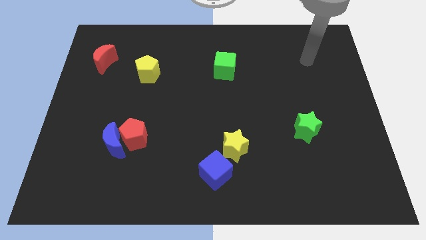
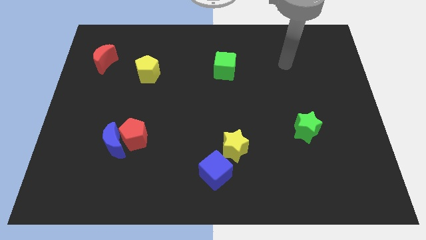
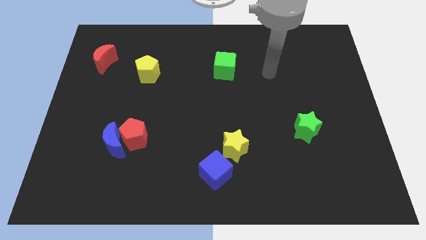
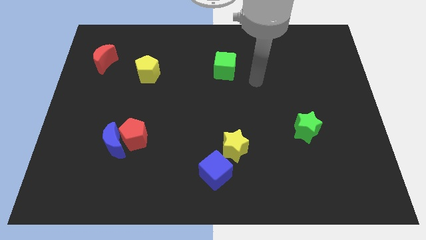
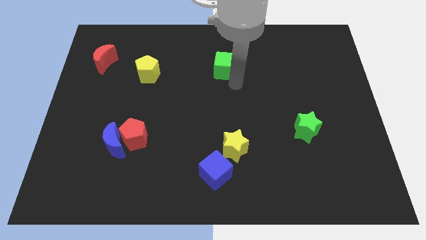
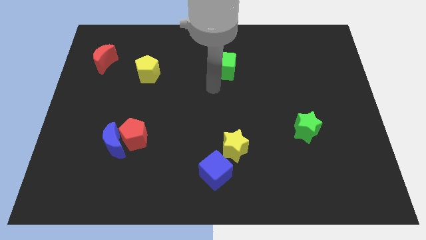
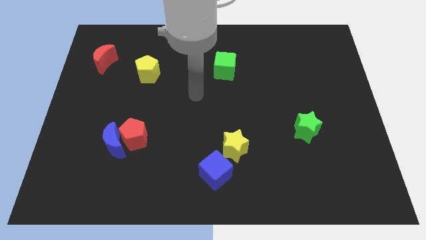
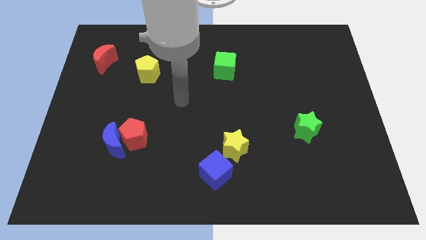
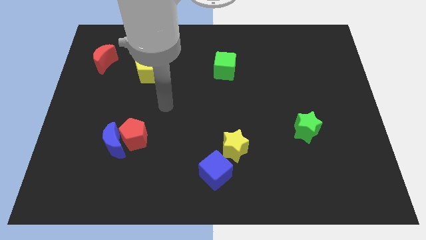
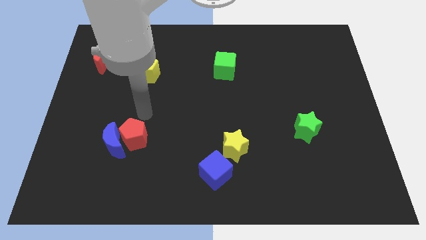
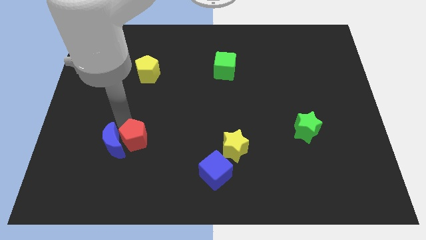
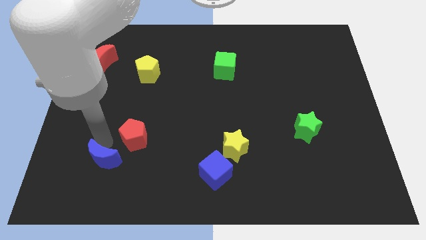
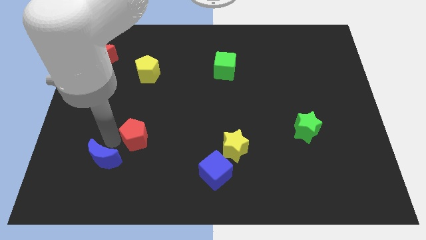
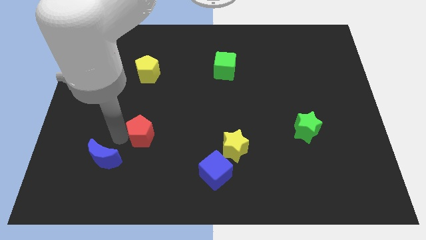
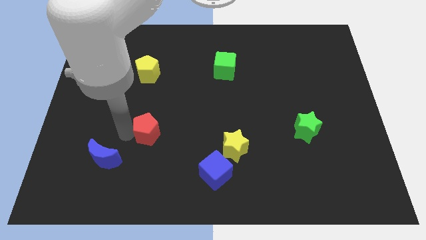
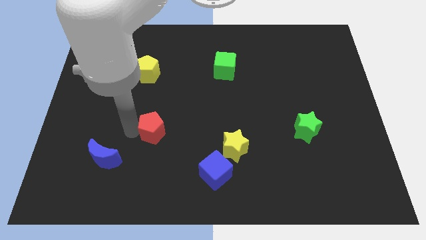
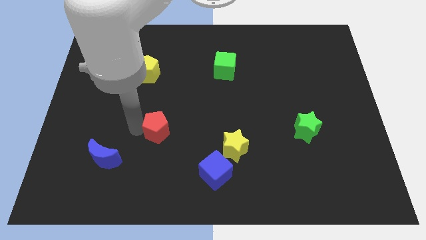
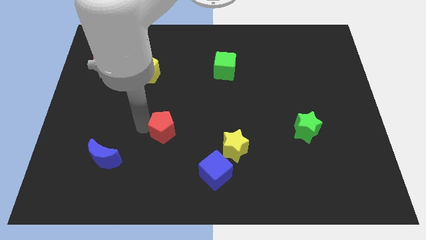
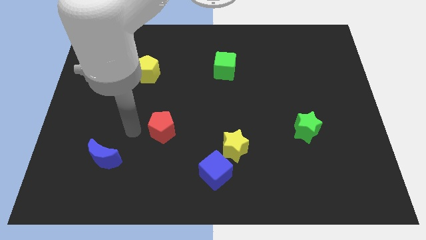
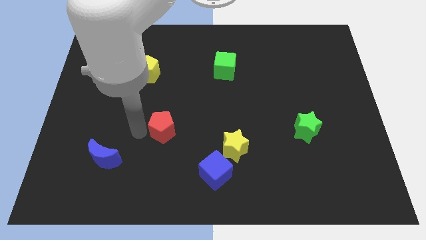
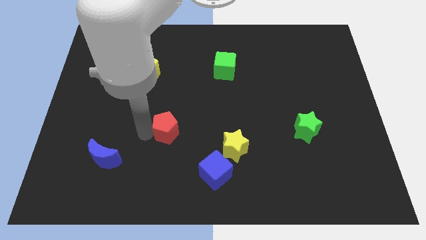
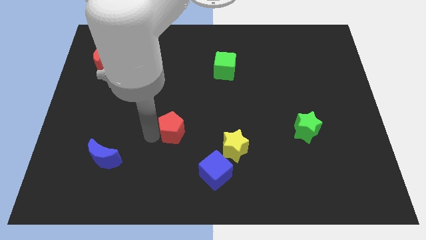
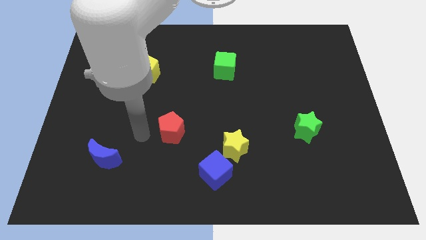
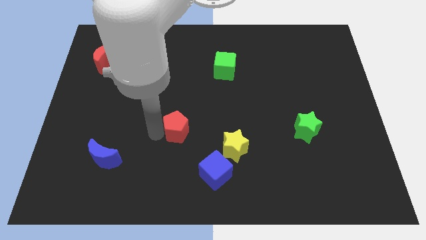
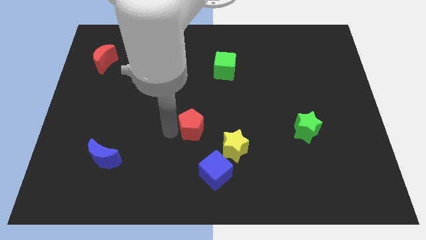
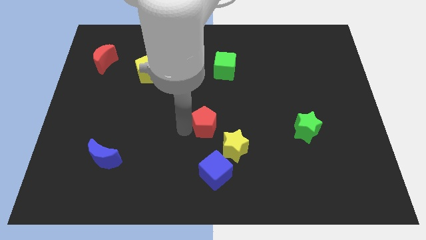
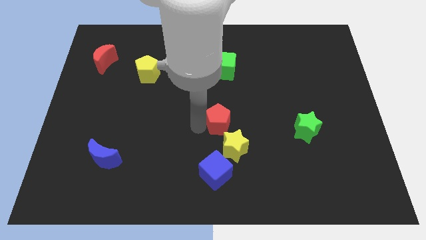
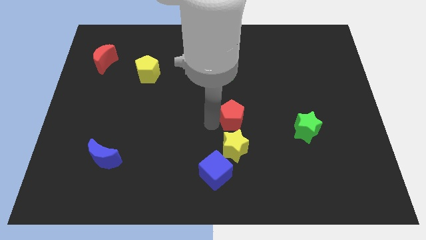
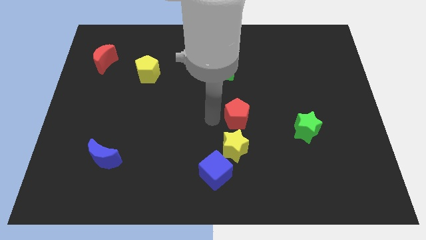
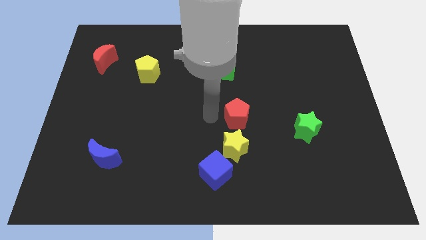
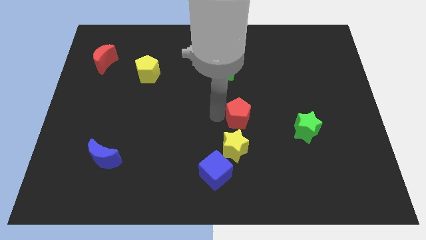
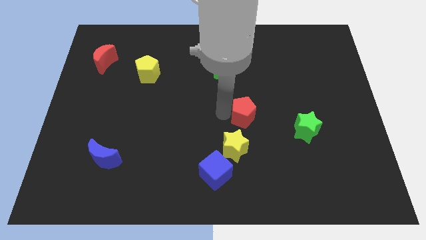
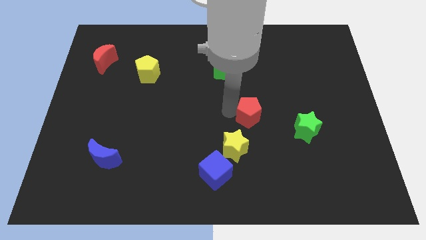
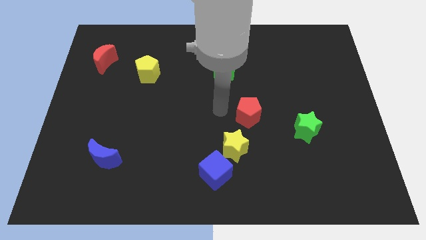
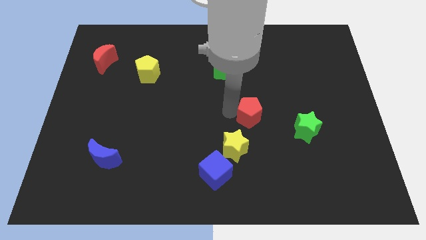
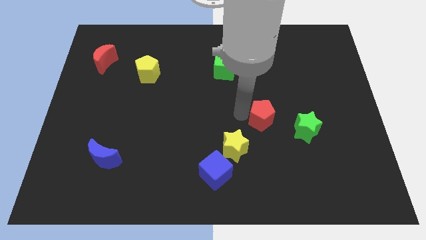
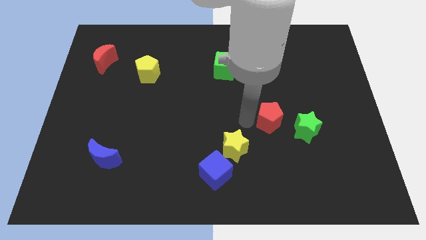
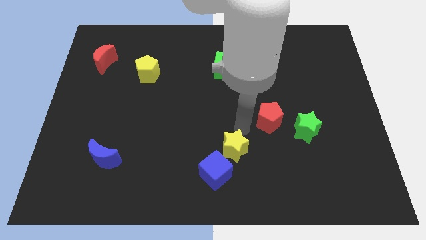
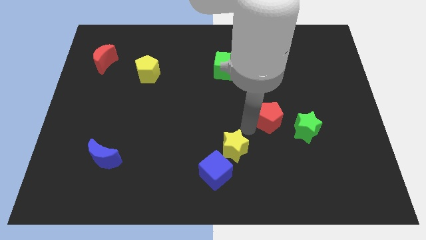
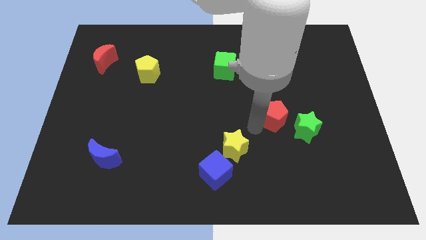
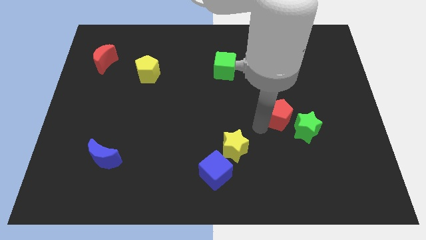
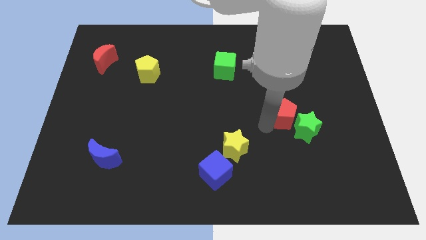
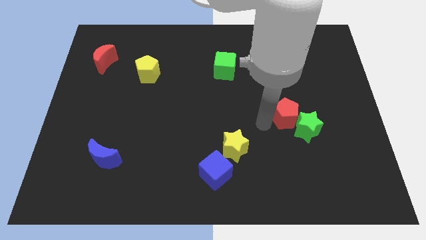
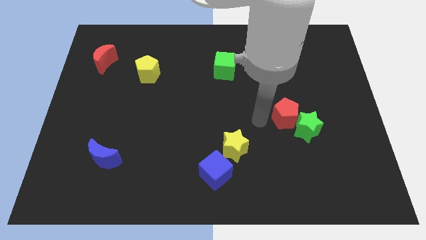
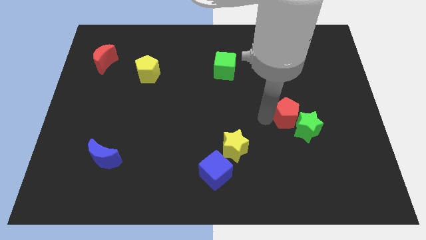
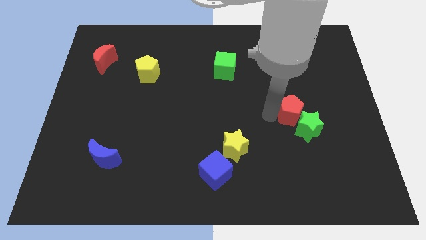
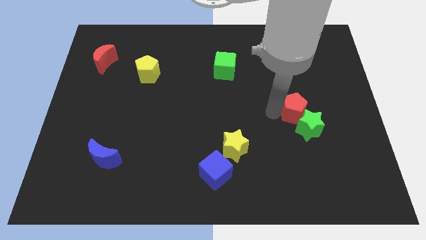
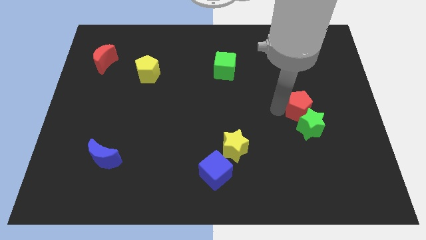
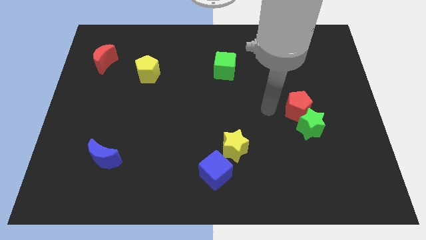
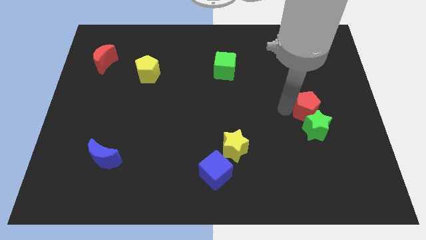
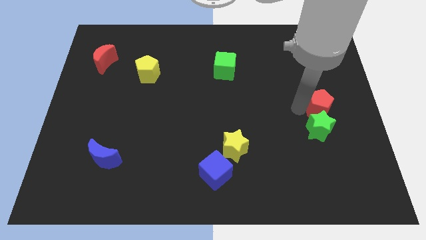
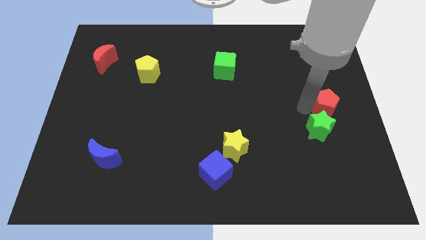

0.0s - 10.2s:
slide the red pentagon to the right side

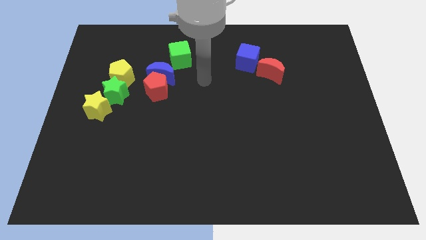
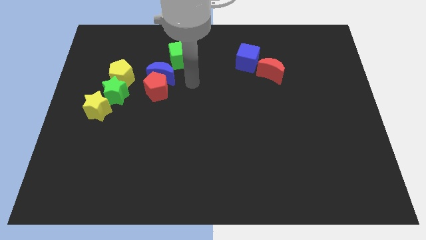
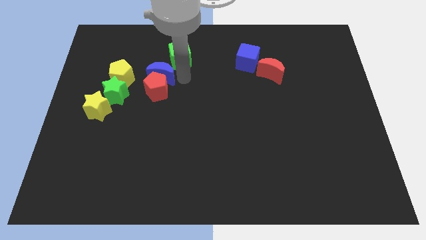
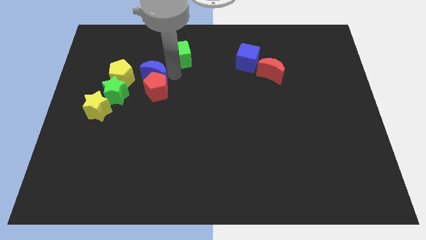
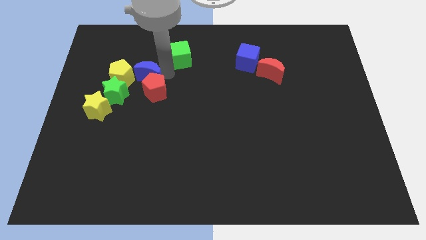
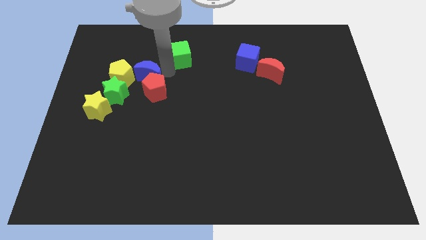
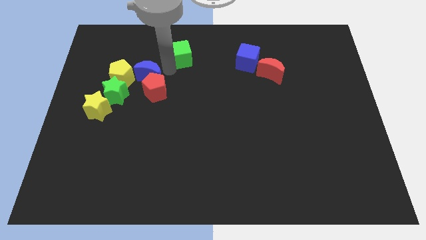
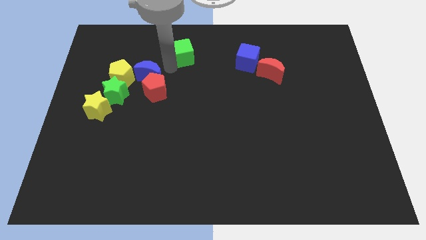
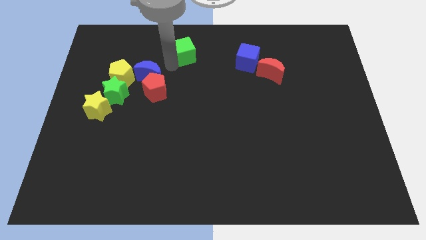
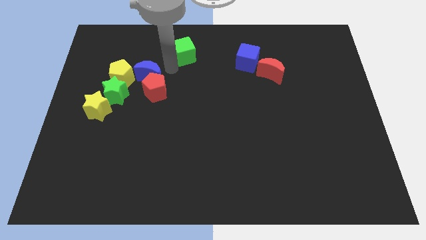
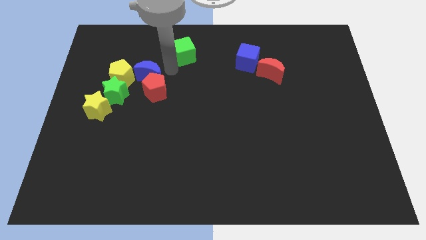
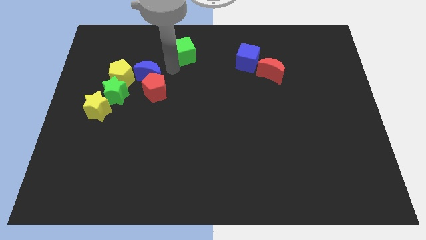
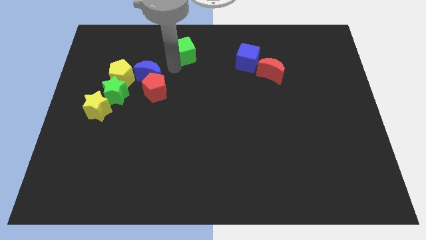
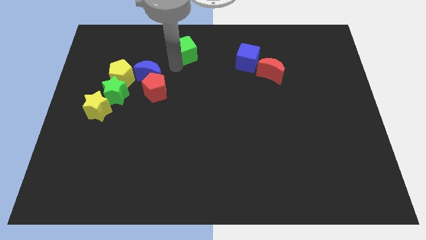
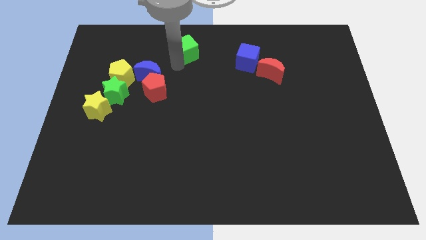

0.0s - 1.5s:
slide the green cube to the top side
